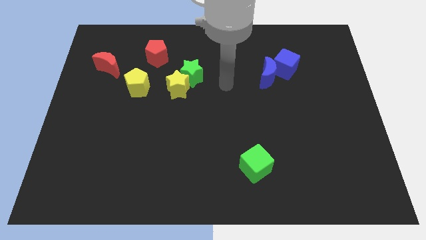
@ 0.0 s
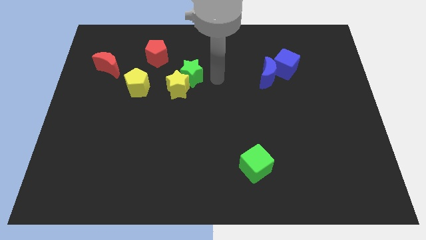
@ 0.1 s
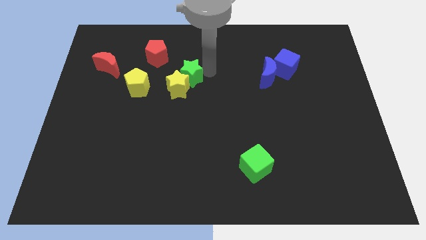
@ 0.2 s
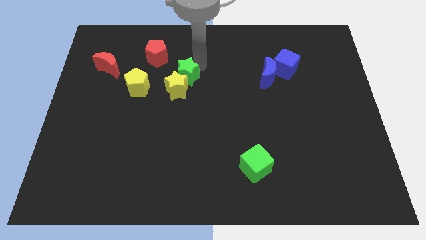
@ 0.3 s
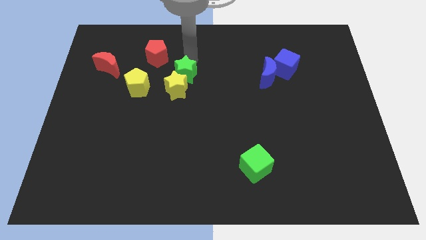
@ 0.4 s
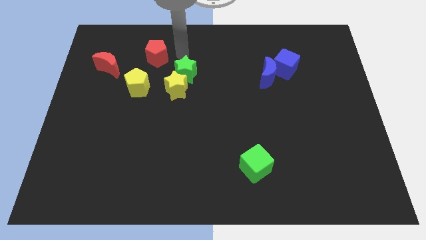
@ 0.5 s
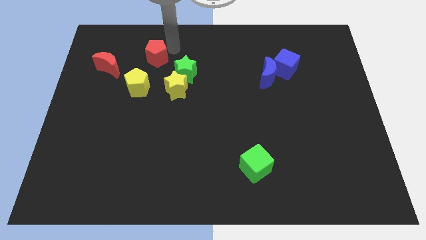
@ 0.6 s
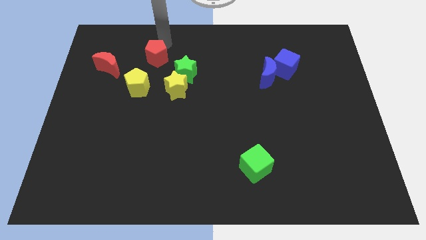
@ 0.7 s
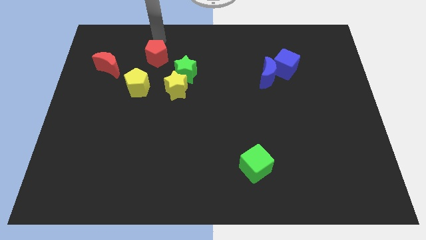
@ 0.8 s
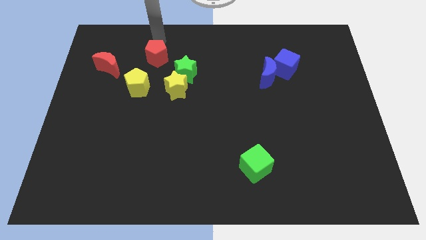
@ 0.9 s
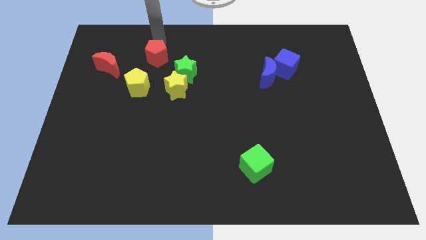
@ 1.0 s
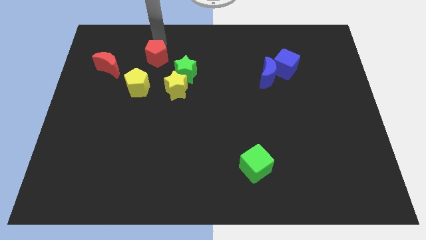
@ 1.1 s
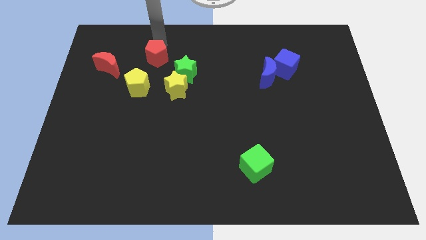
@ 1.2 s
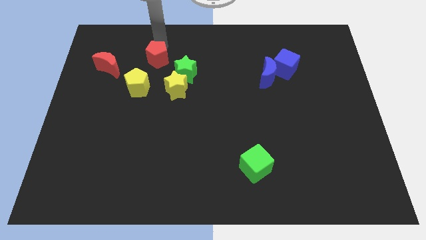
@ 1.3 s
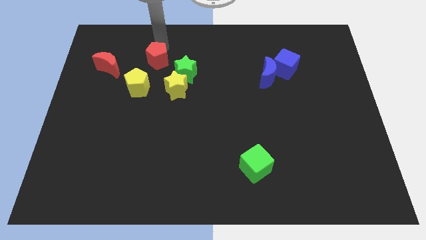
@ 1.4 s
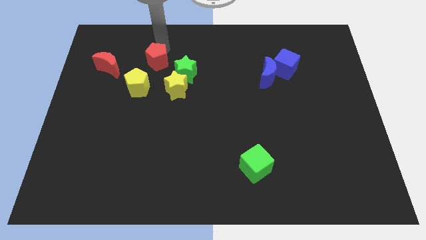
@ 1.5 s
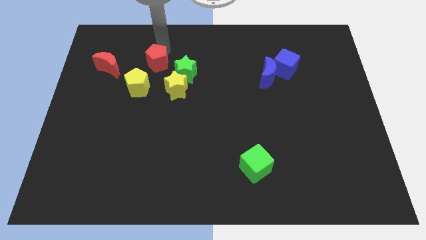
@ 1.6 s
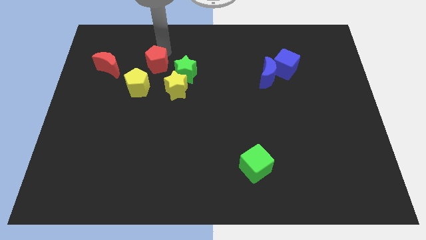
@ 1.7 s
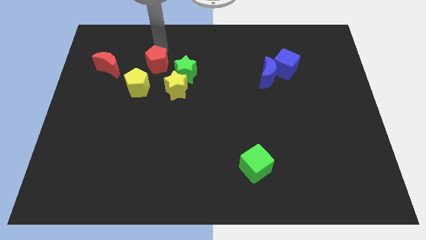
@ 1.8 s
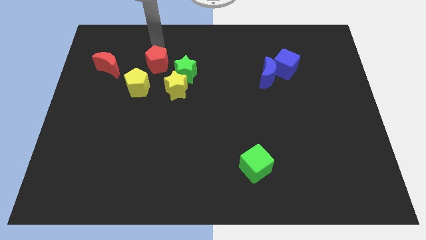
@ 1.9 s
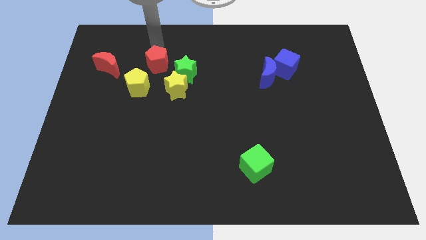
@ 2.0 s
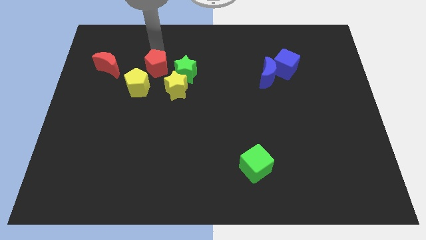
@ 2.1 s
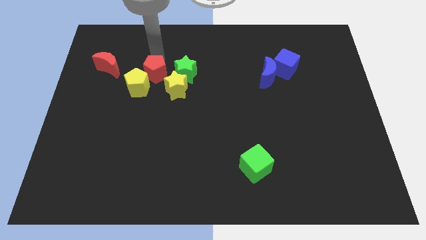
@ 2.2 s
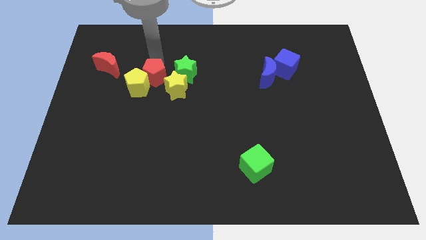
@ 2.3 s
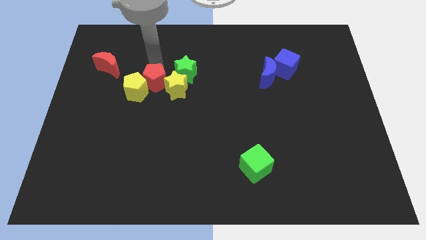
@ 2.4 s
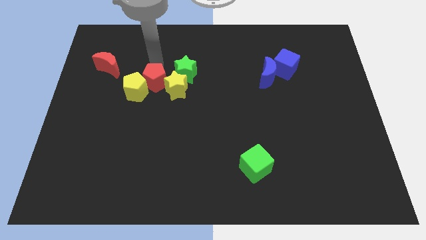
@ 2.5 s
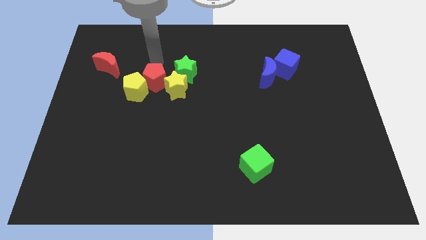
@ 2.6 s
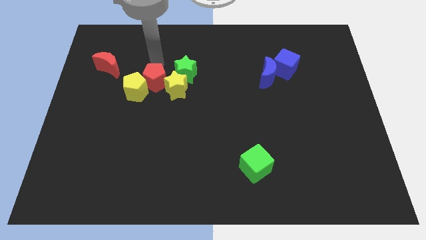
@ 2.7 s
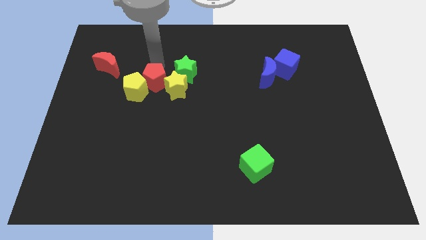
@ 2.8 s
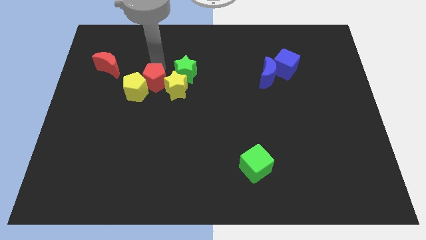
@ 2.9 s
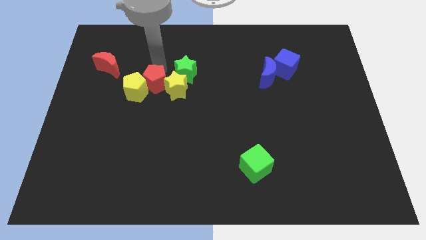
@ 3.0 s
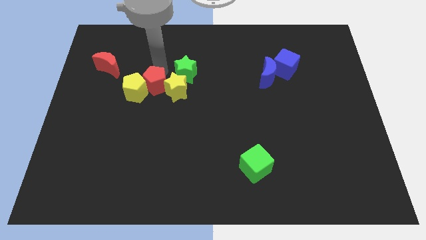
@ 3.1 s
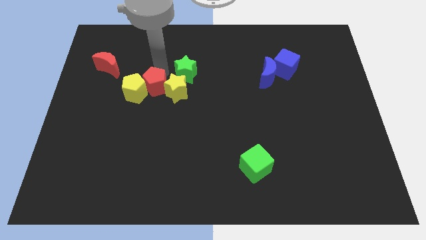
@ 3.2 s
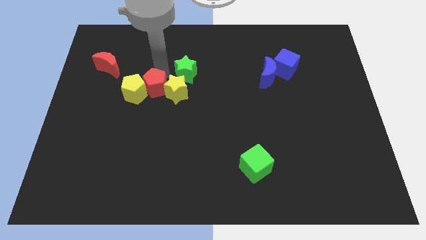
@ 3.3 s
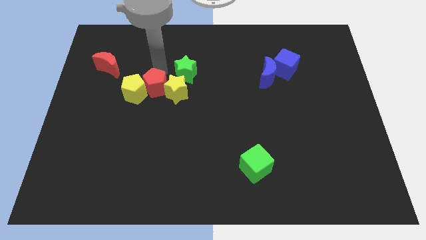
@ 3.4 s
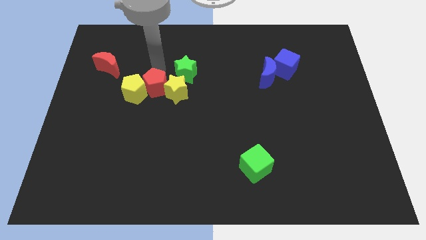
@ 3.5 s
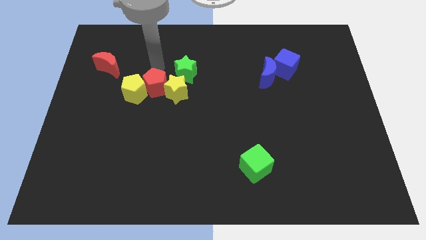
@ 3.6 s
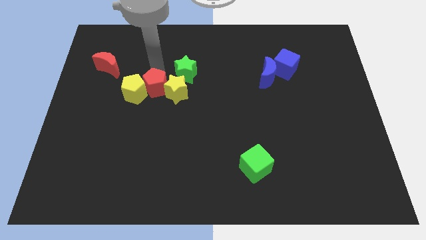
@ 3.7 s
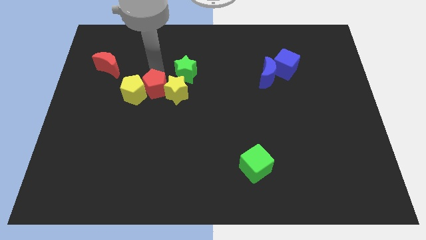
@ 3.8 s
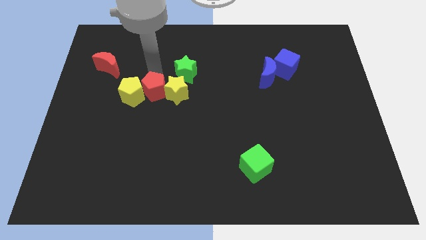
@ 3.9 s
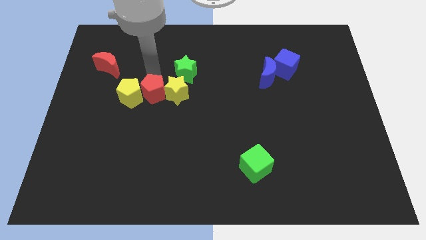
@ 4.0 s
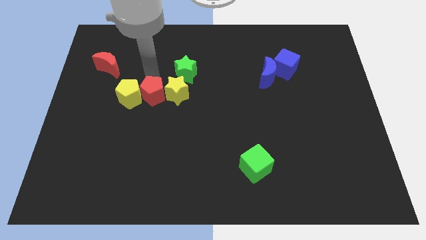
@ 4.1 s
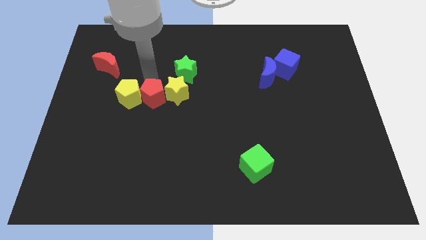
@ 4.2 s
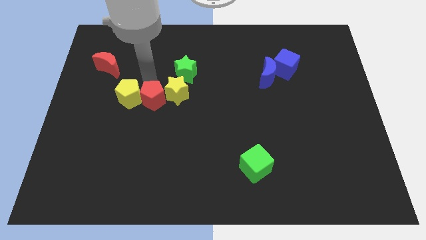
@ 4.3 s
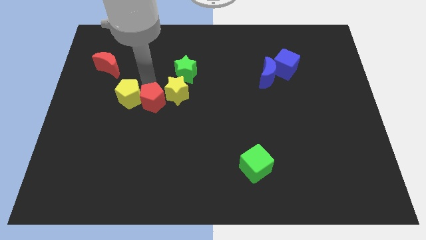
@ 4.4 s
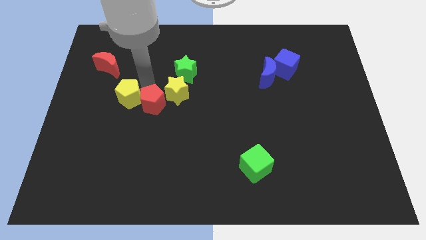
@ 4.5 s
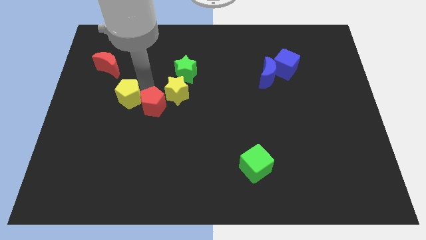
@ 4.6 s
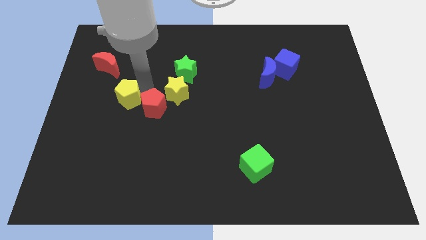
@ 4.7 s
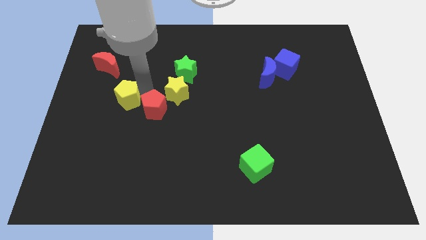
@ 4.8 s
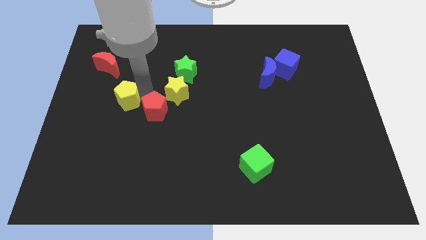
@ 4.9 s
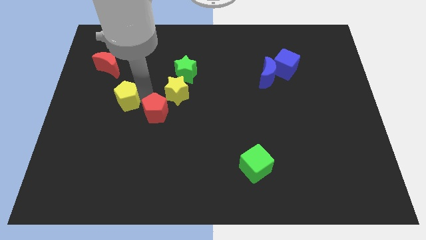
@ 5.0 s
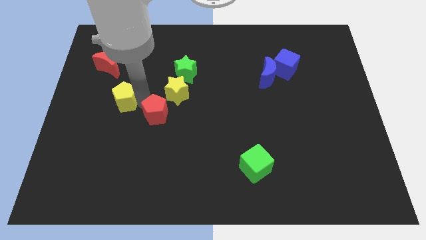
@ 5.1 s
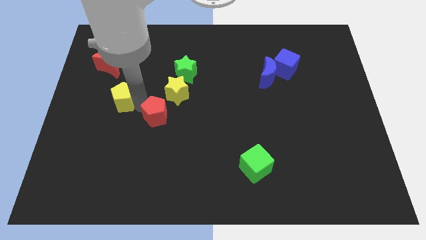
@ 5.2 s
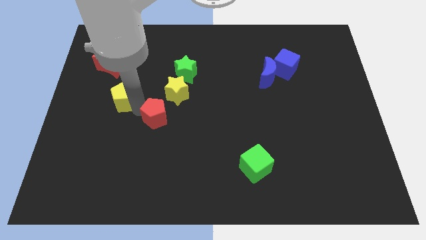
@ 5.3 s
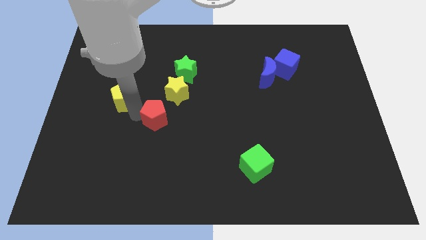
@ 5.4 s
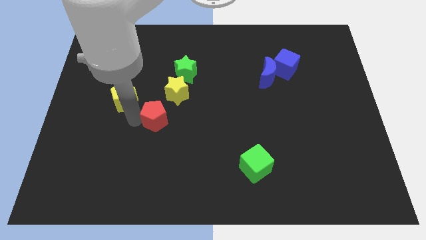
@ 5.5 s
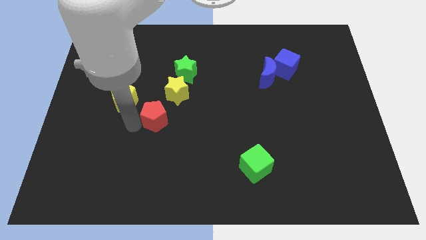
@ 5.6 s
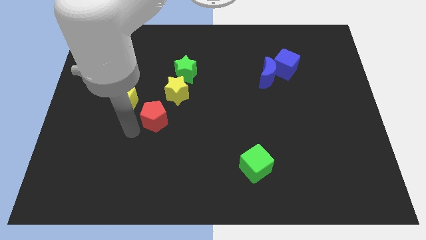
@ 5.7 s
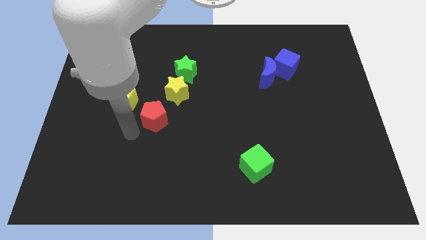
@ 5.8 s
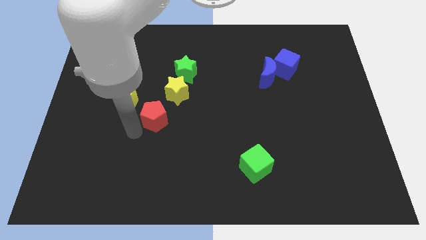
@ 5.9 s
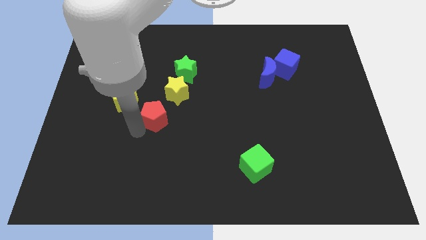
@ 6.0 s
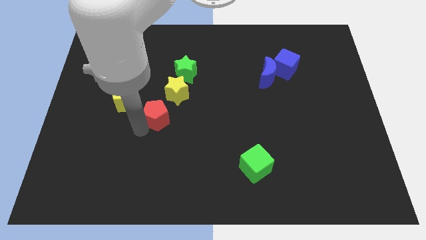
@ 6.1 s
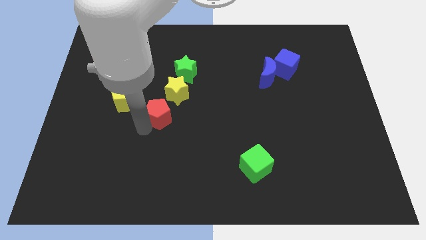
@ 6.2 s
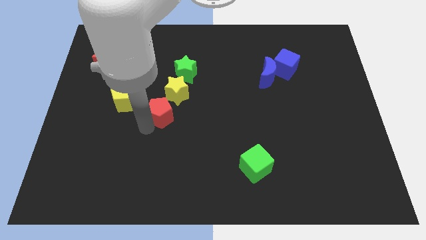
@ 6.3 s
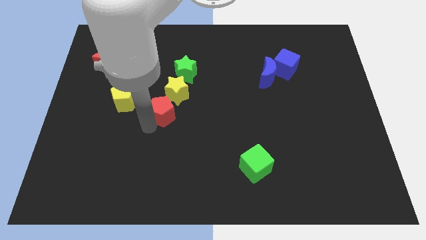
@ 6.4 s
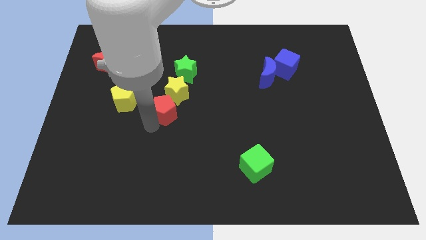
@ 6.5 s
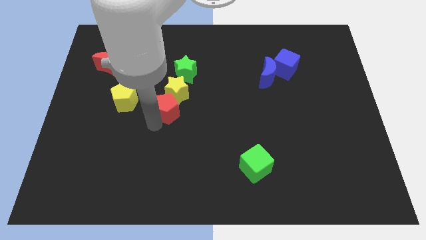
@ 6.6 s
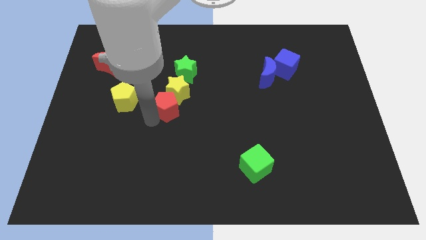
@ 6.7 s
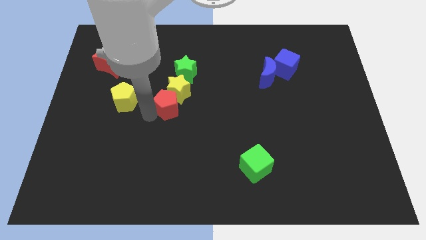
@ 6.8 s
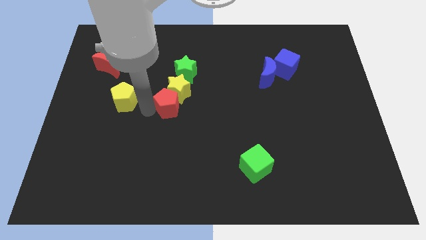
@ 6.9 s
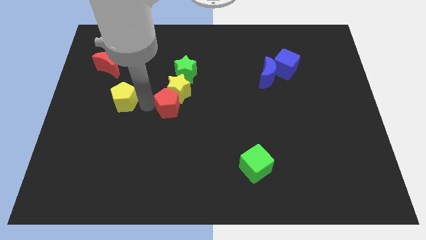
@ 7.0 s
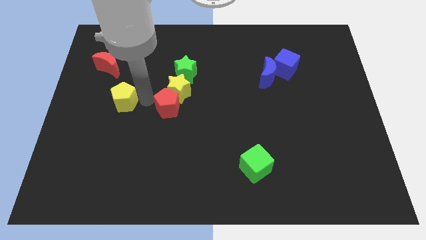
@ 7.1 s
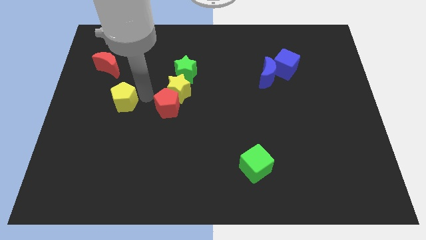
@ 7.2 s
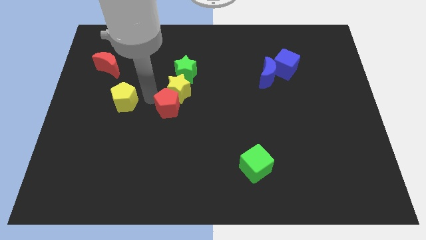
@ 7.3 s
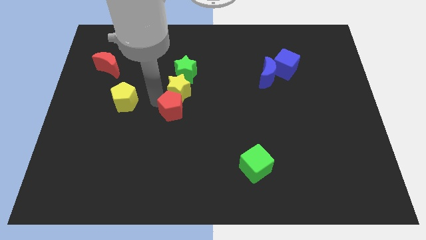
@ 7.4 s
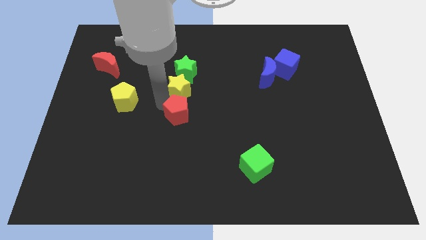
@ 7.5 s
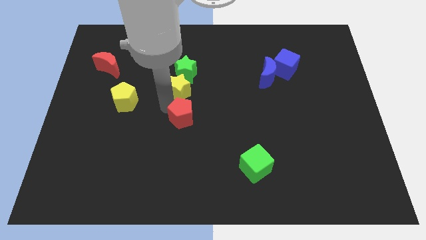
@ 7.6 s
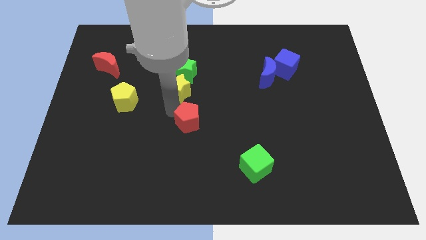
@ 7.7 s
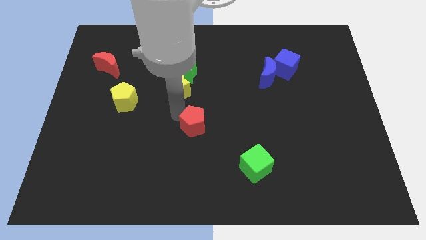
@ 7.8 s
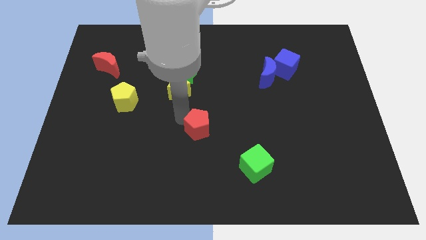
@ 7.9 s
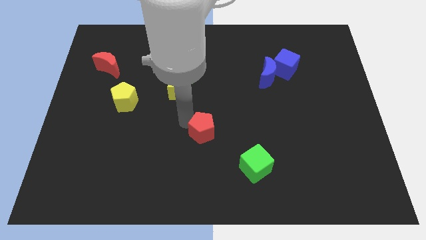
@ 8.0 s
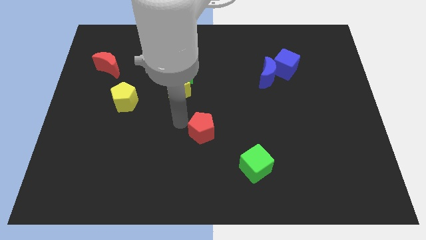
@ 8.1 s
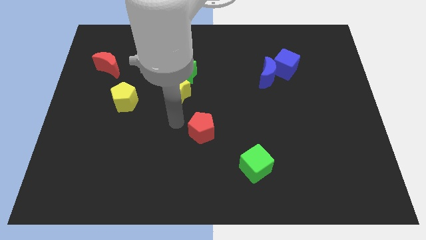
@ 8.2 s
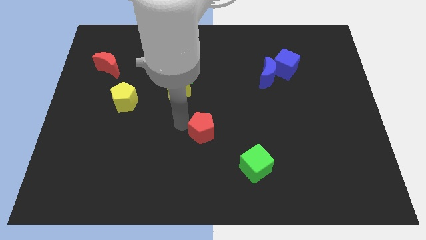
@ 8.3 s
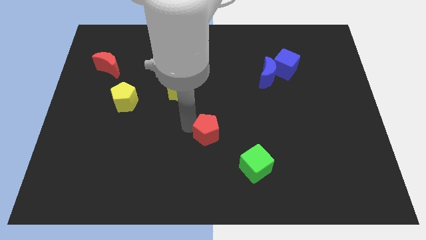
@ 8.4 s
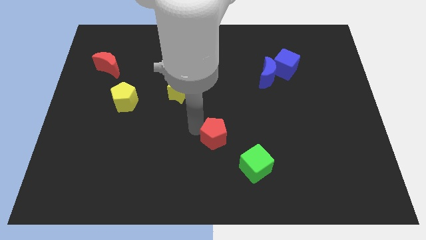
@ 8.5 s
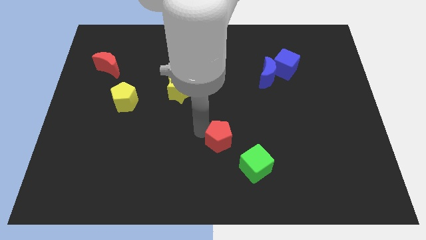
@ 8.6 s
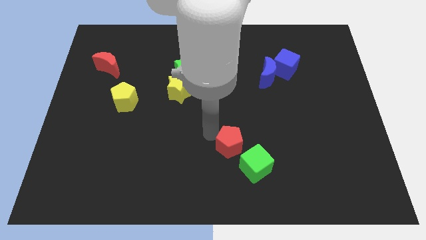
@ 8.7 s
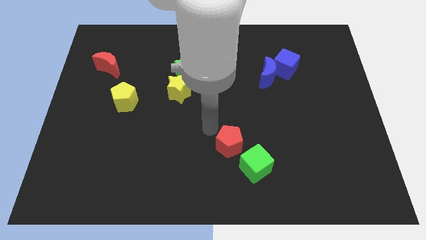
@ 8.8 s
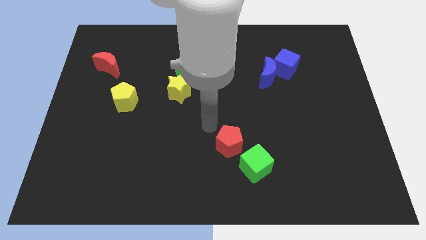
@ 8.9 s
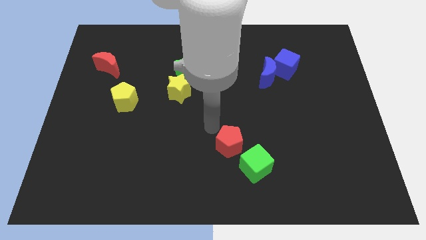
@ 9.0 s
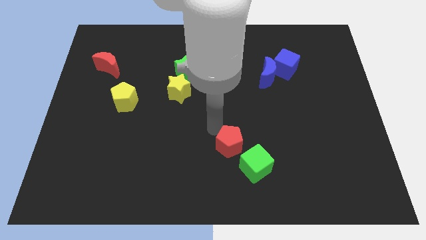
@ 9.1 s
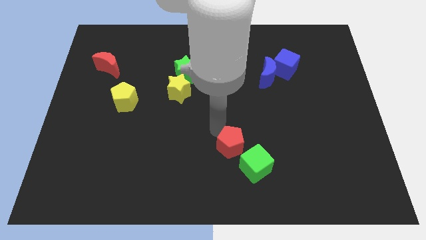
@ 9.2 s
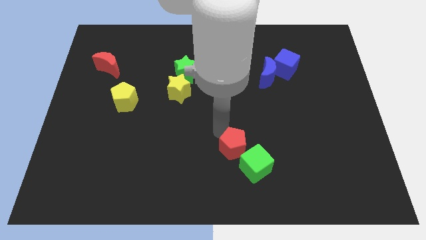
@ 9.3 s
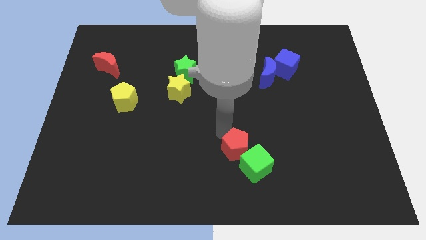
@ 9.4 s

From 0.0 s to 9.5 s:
put the red pentagon towards the green cube
